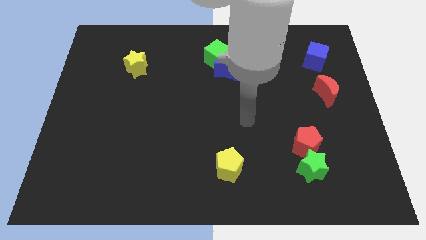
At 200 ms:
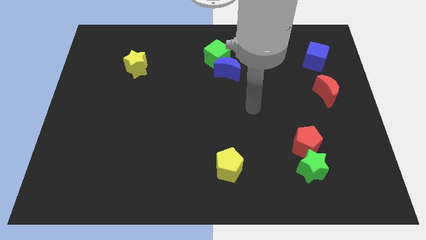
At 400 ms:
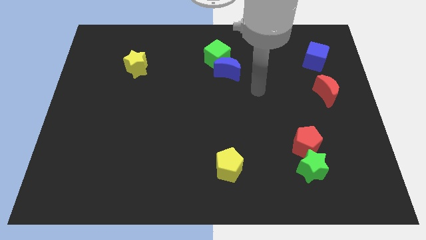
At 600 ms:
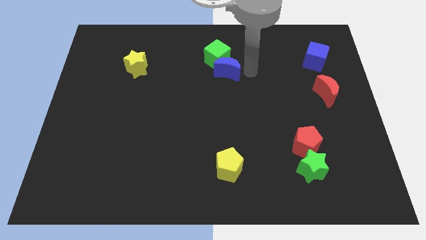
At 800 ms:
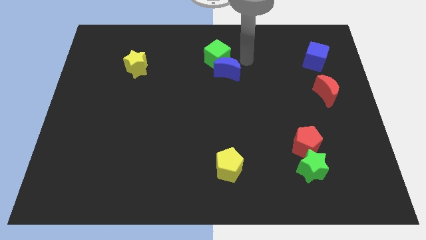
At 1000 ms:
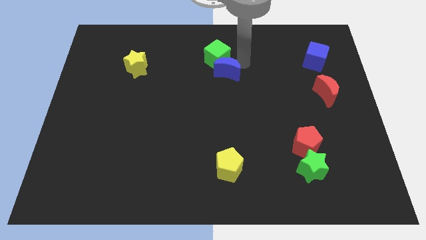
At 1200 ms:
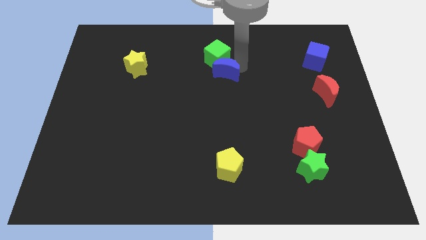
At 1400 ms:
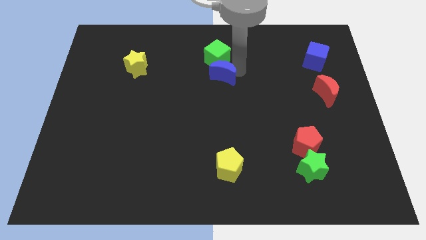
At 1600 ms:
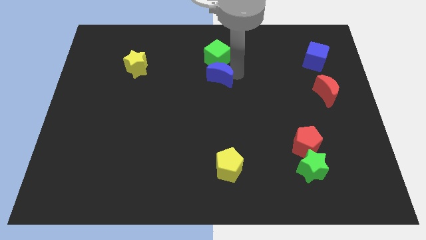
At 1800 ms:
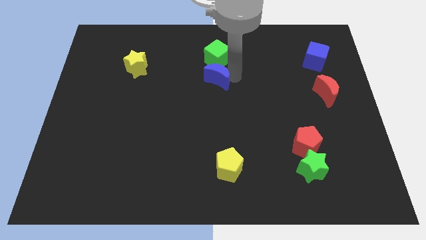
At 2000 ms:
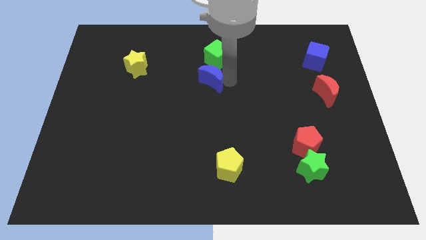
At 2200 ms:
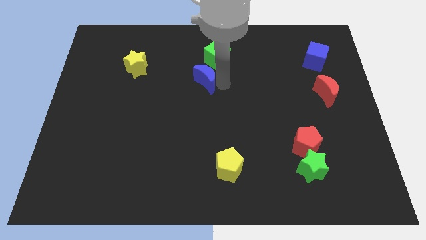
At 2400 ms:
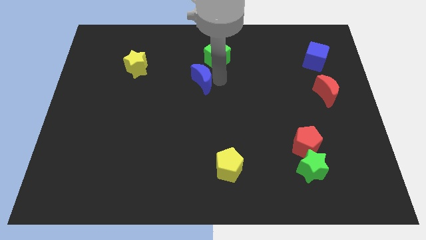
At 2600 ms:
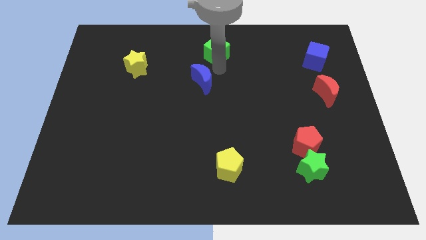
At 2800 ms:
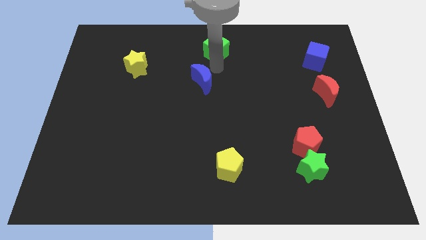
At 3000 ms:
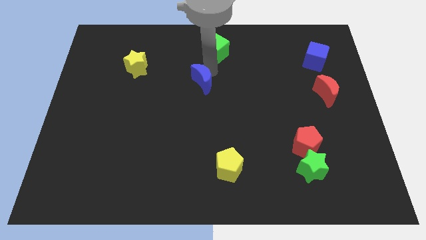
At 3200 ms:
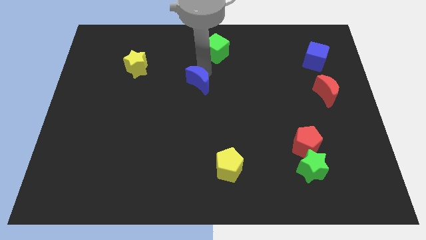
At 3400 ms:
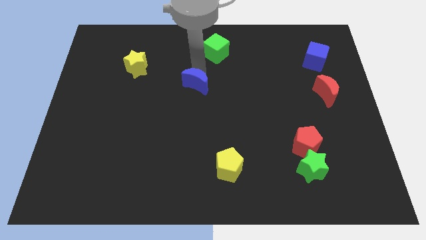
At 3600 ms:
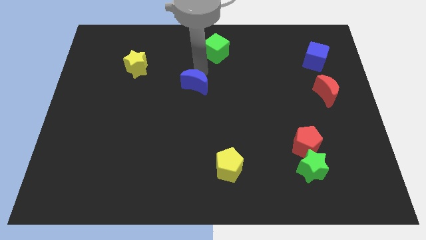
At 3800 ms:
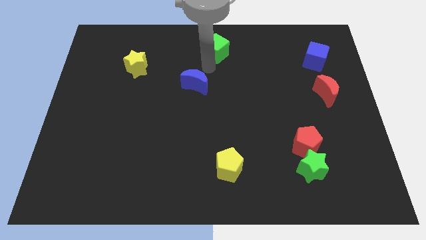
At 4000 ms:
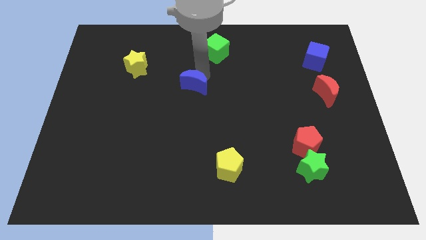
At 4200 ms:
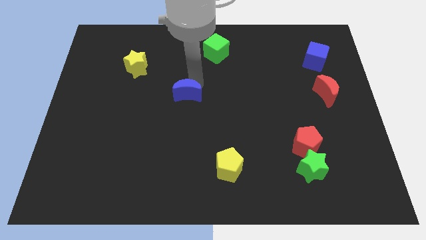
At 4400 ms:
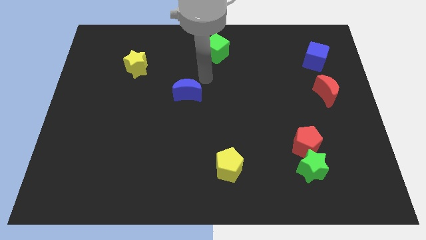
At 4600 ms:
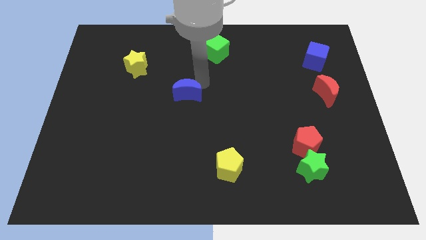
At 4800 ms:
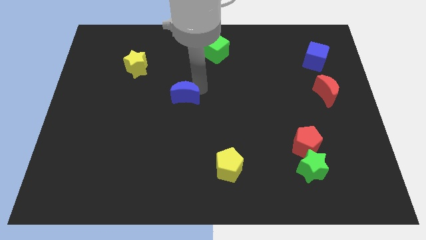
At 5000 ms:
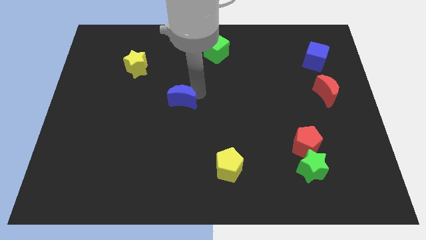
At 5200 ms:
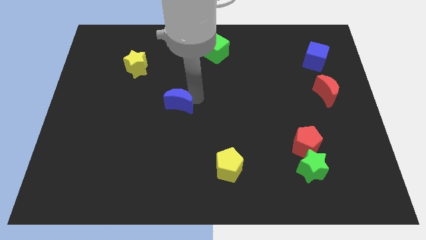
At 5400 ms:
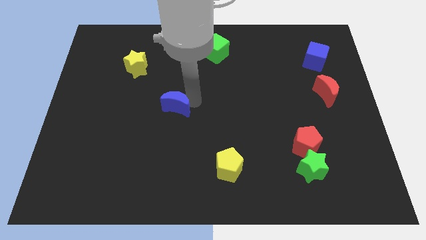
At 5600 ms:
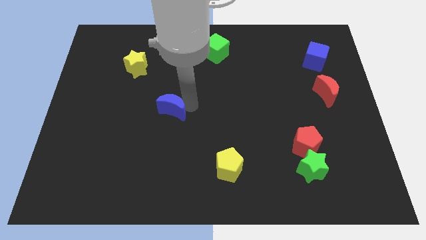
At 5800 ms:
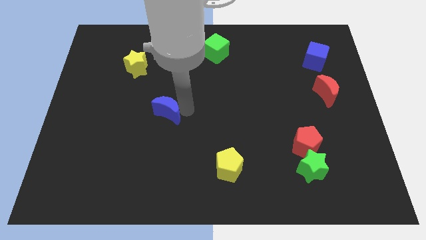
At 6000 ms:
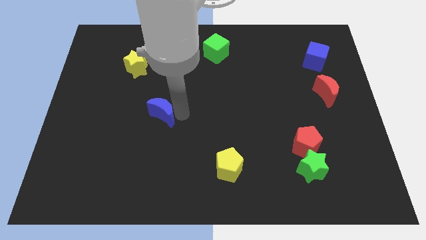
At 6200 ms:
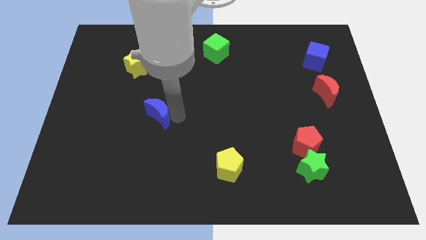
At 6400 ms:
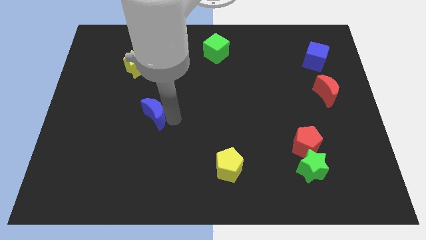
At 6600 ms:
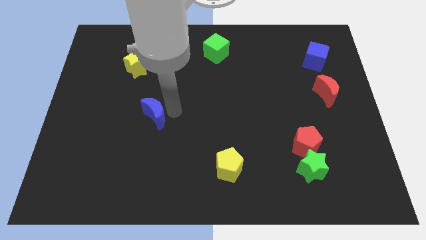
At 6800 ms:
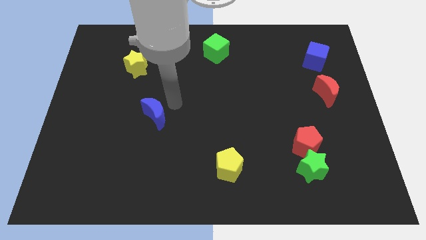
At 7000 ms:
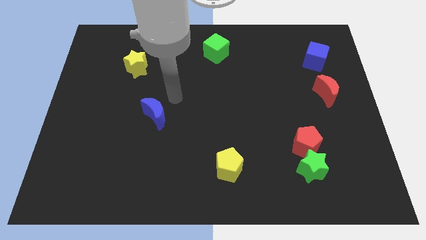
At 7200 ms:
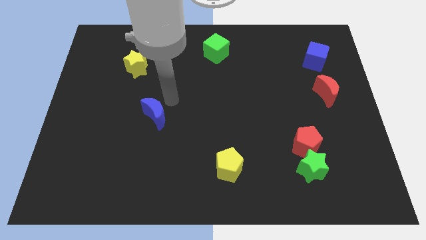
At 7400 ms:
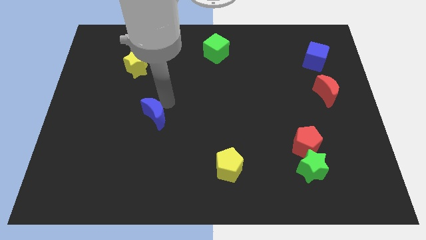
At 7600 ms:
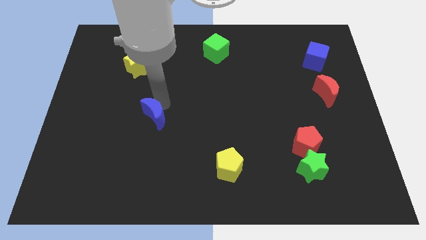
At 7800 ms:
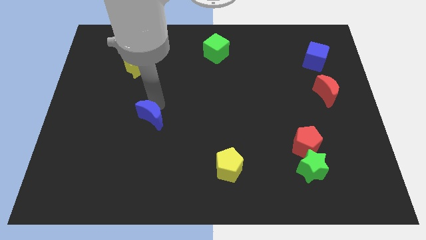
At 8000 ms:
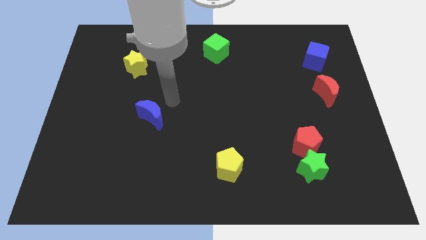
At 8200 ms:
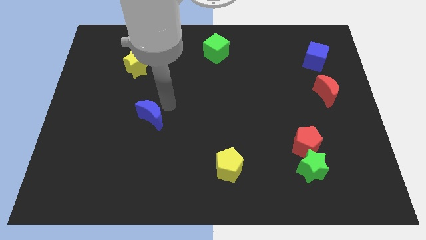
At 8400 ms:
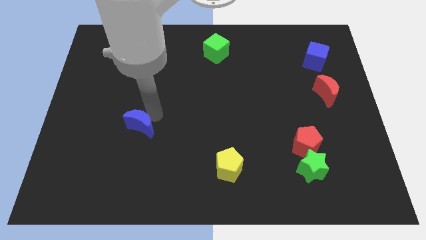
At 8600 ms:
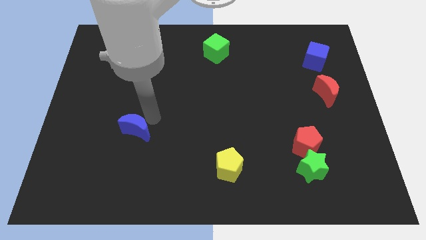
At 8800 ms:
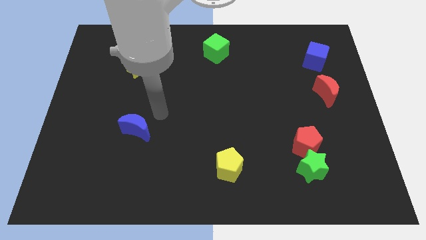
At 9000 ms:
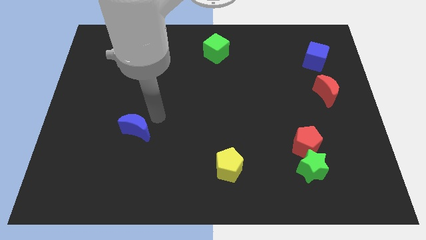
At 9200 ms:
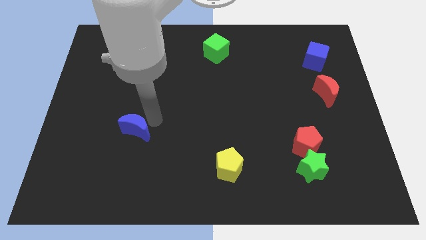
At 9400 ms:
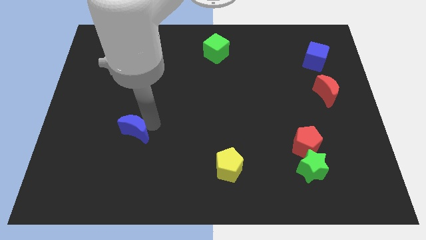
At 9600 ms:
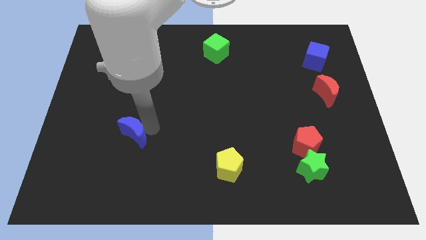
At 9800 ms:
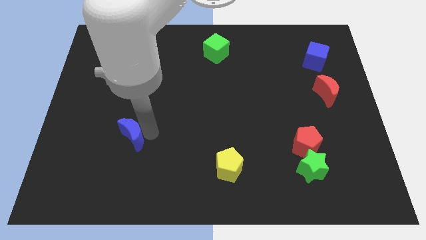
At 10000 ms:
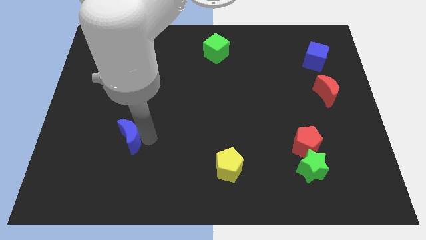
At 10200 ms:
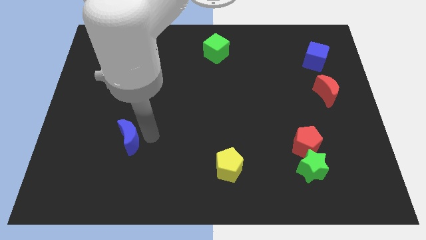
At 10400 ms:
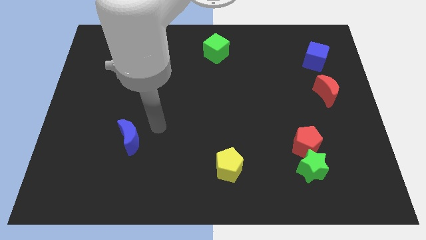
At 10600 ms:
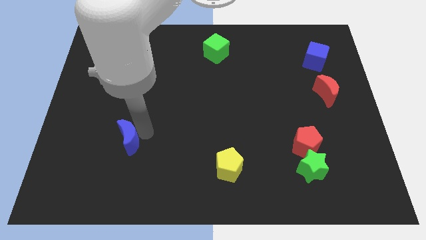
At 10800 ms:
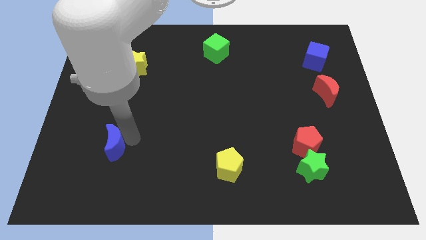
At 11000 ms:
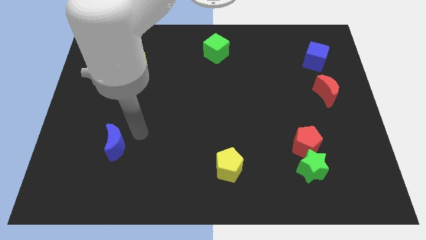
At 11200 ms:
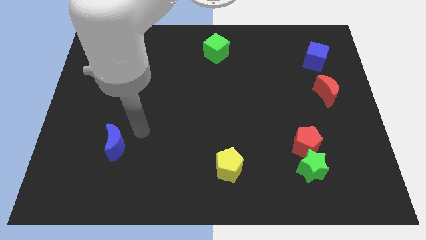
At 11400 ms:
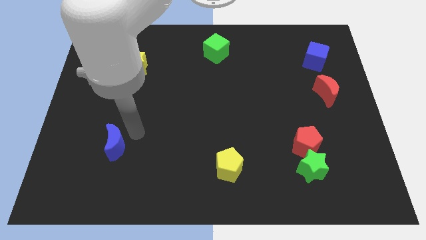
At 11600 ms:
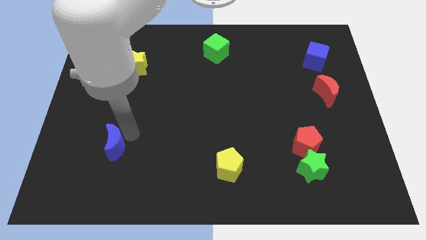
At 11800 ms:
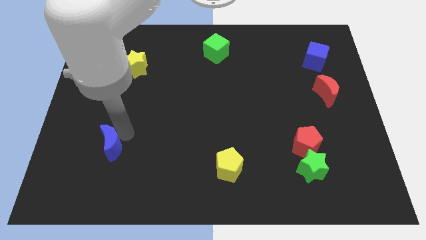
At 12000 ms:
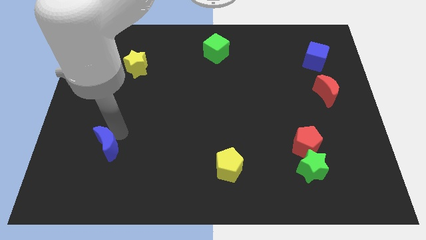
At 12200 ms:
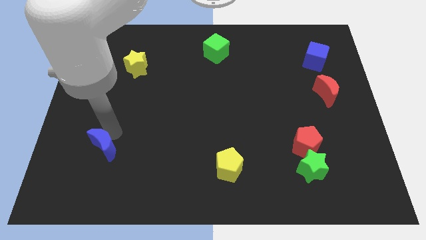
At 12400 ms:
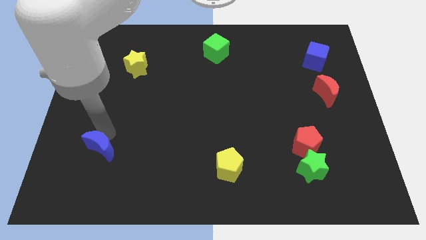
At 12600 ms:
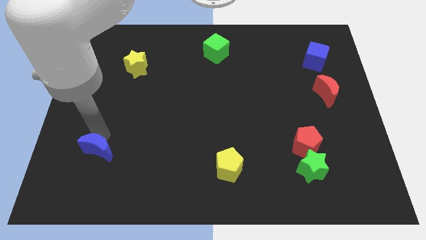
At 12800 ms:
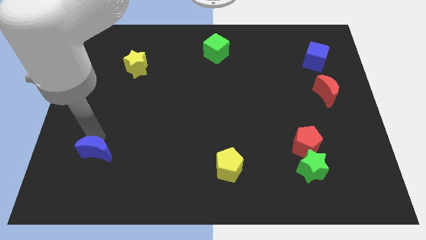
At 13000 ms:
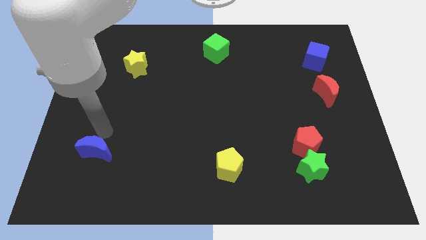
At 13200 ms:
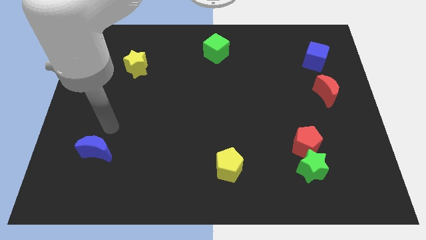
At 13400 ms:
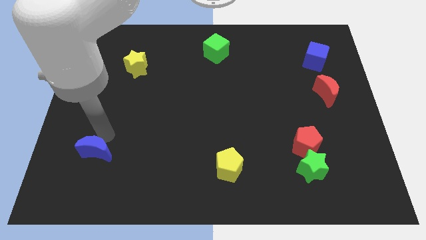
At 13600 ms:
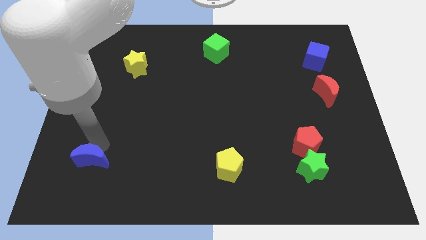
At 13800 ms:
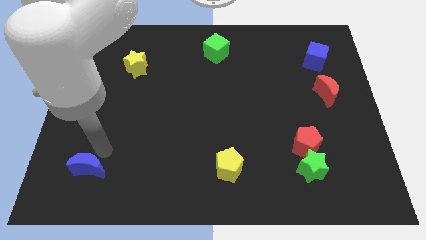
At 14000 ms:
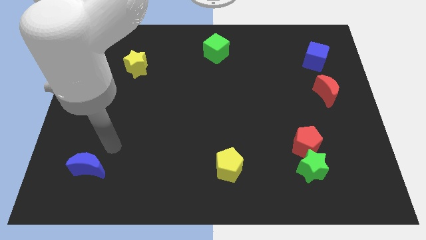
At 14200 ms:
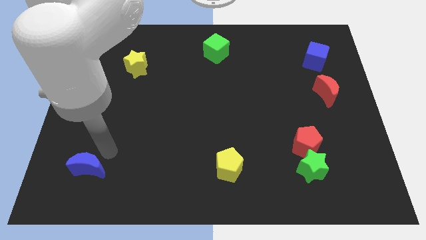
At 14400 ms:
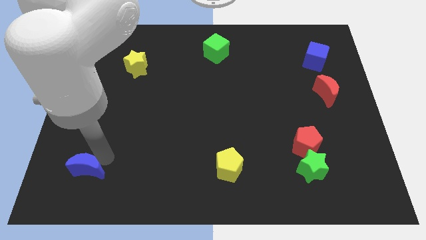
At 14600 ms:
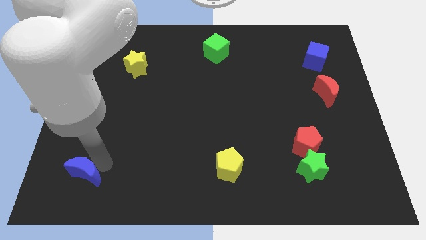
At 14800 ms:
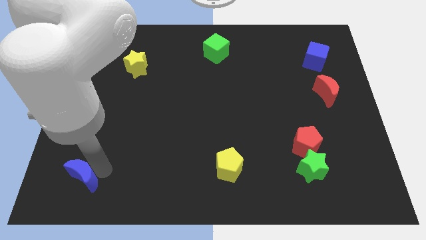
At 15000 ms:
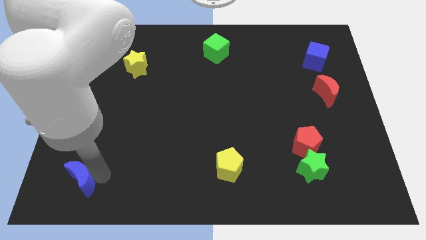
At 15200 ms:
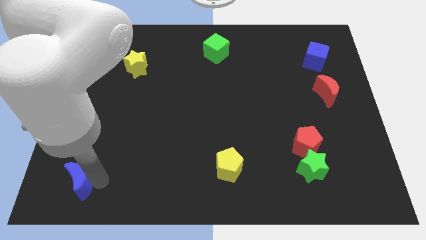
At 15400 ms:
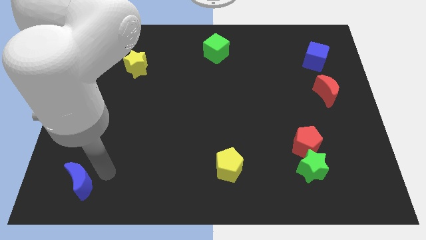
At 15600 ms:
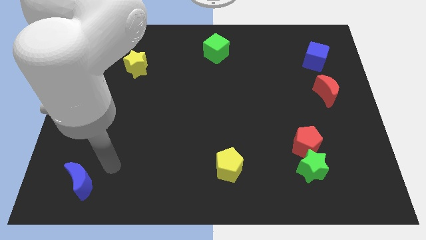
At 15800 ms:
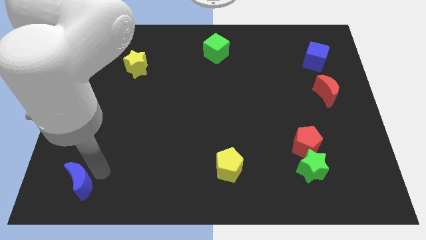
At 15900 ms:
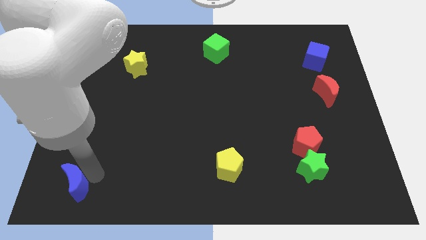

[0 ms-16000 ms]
put the blue moon to the bottom left corner
